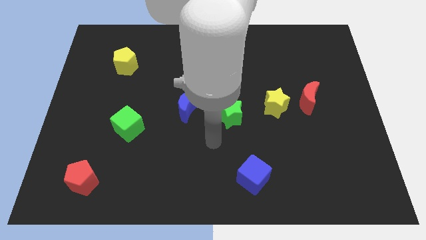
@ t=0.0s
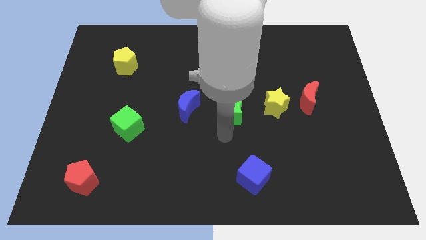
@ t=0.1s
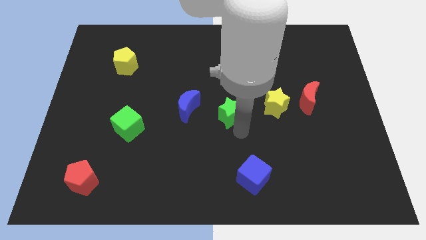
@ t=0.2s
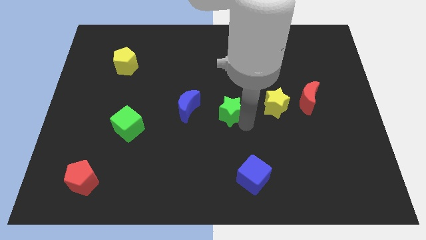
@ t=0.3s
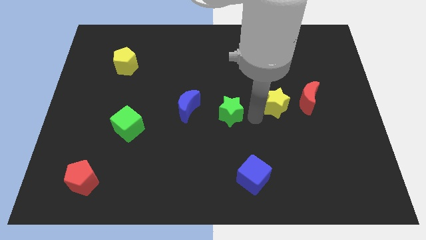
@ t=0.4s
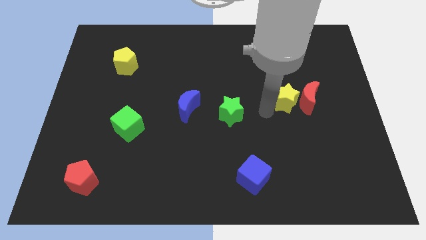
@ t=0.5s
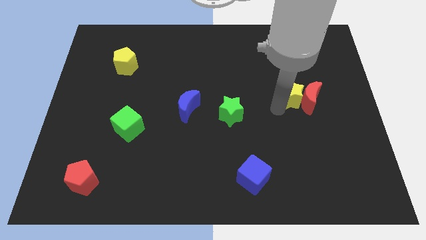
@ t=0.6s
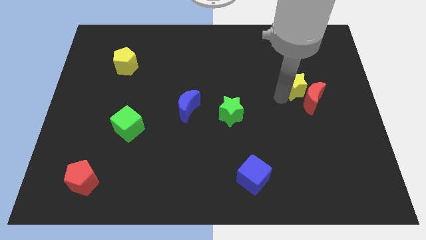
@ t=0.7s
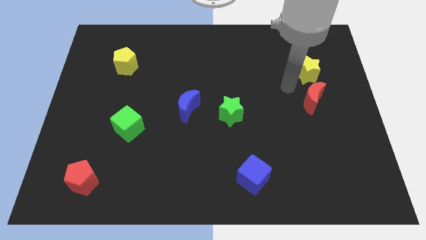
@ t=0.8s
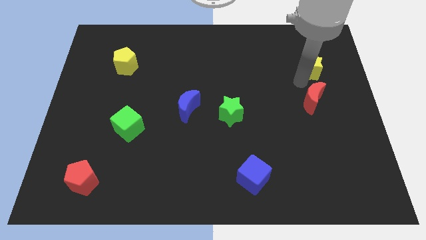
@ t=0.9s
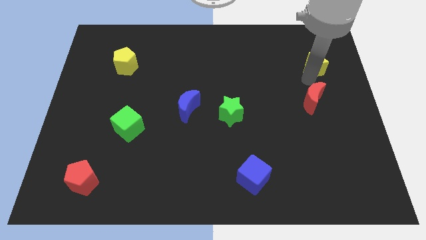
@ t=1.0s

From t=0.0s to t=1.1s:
pull the red moon apart from the yellow star

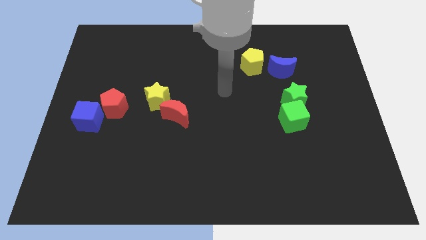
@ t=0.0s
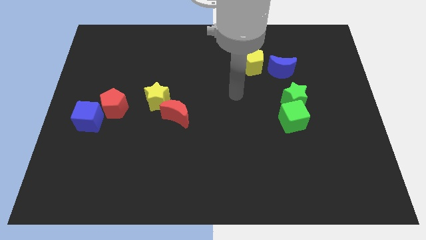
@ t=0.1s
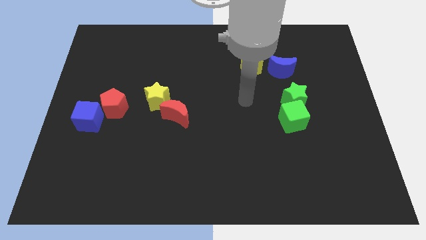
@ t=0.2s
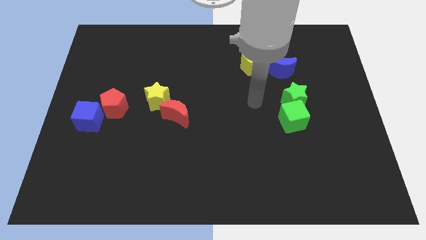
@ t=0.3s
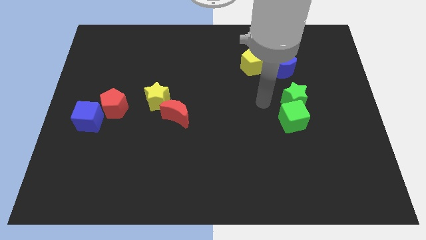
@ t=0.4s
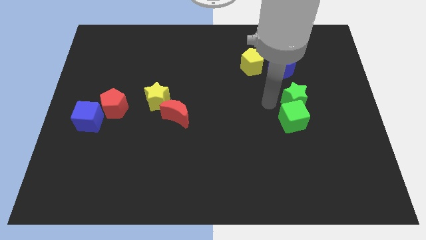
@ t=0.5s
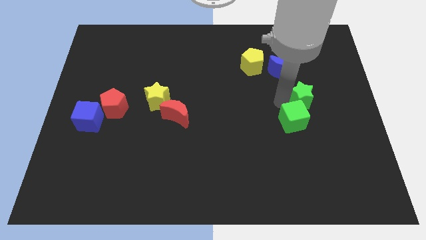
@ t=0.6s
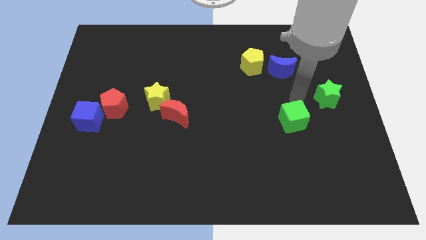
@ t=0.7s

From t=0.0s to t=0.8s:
pull the green cube apart from the green star

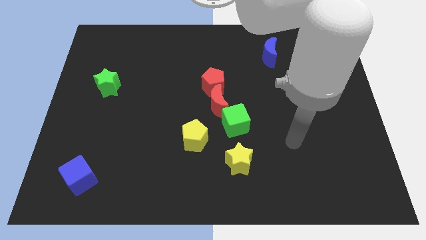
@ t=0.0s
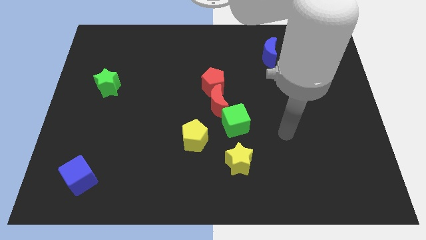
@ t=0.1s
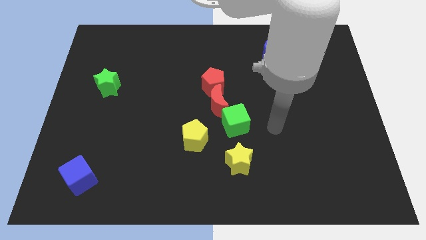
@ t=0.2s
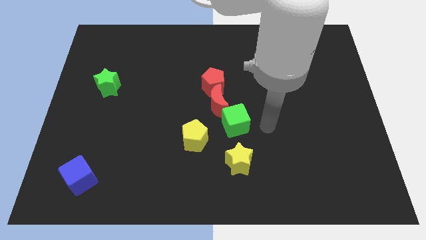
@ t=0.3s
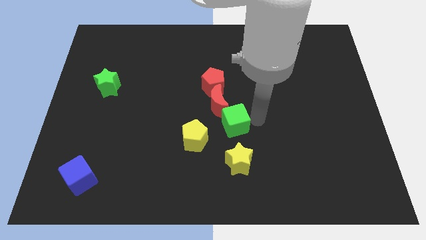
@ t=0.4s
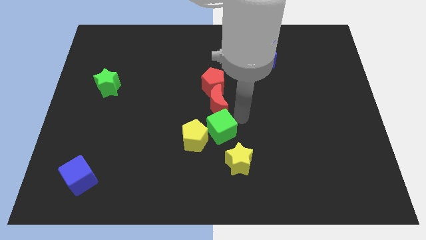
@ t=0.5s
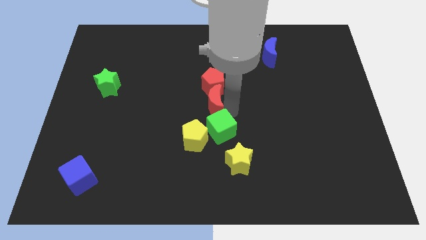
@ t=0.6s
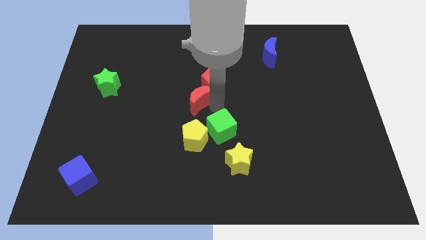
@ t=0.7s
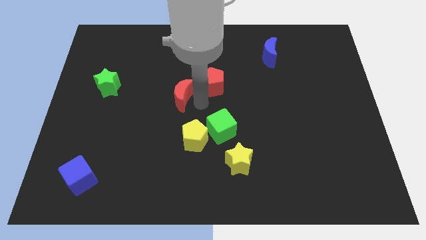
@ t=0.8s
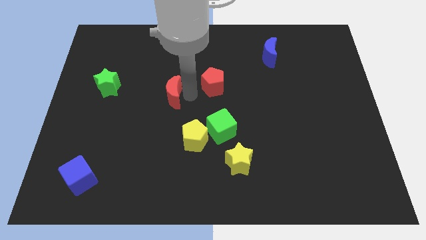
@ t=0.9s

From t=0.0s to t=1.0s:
separate the red pentagon from the red moon

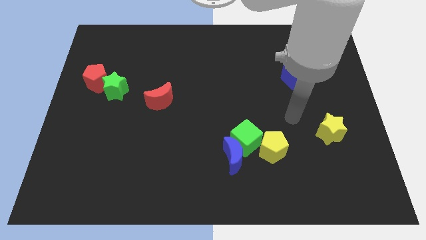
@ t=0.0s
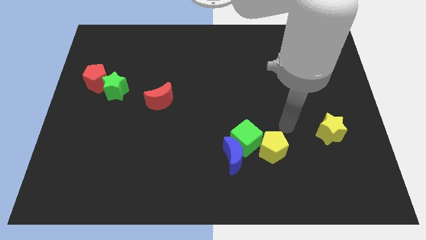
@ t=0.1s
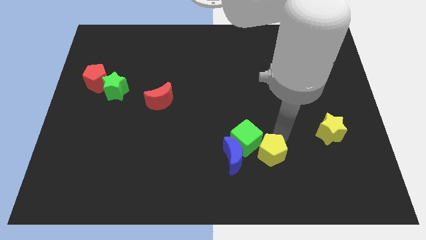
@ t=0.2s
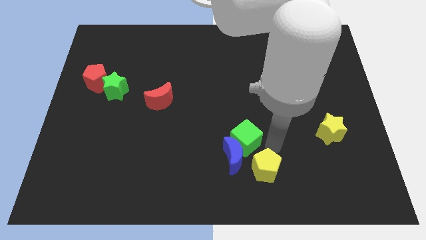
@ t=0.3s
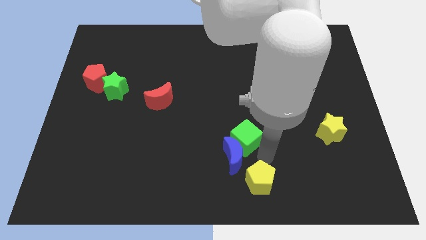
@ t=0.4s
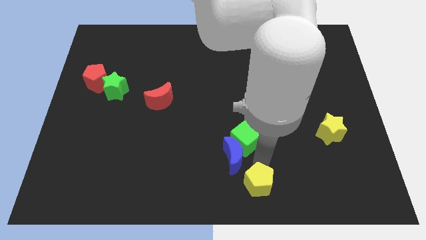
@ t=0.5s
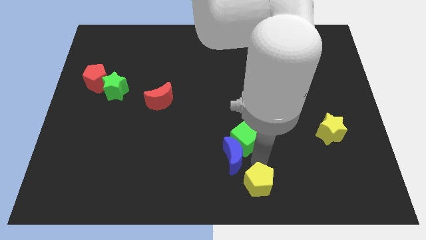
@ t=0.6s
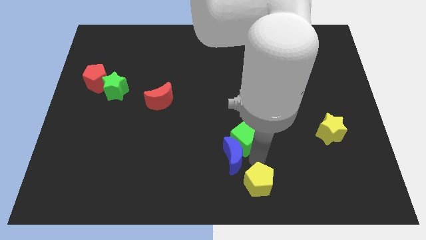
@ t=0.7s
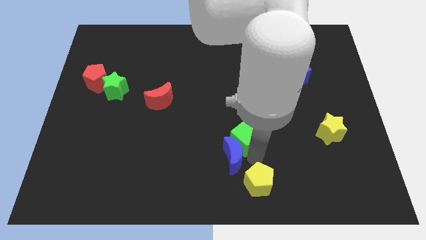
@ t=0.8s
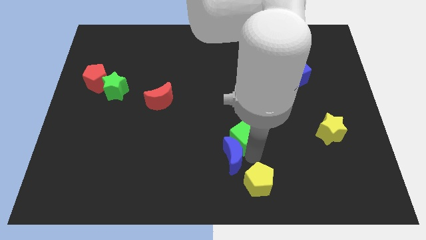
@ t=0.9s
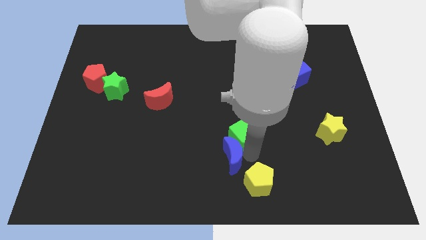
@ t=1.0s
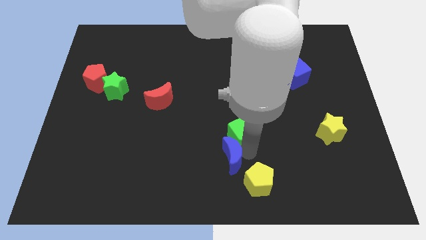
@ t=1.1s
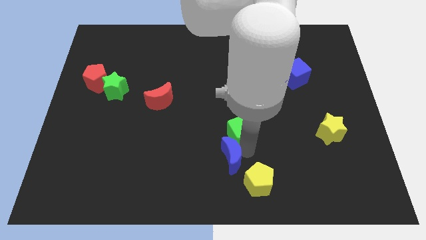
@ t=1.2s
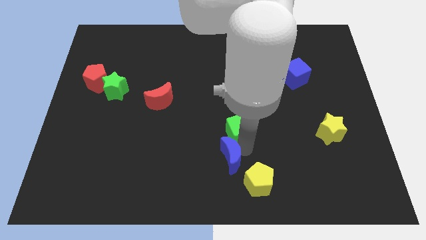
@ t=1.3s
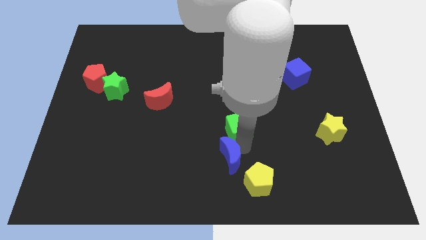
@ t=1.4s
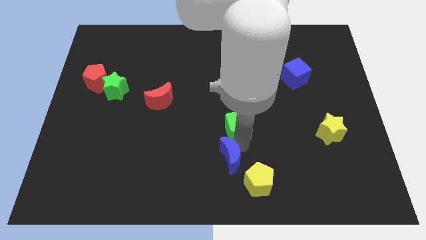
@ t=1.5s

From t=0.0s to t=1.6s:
pull the green cube apart from the blue moon and yellow pentagon

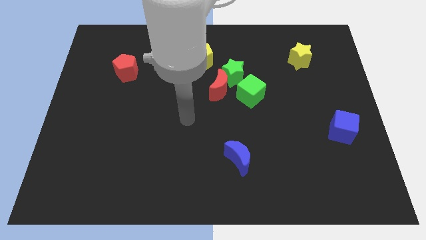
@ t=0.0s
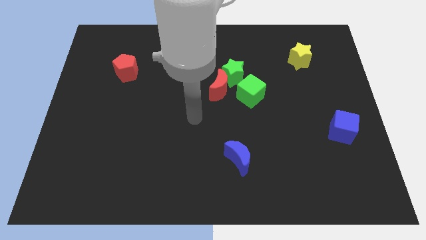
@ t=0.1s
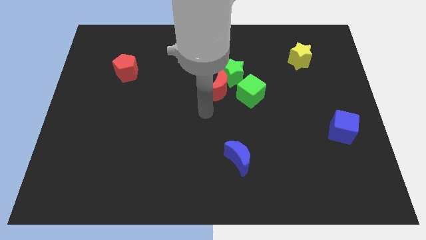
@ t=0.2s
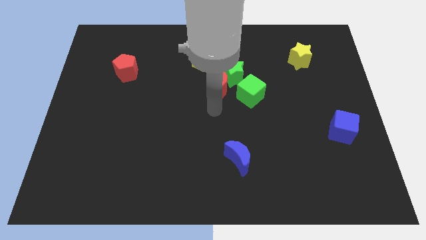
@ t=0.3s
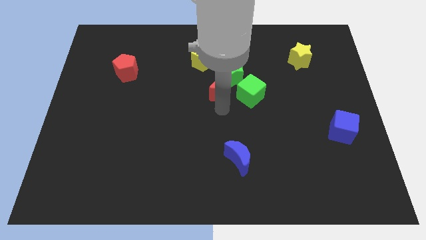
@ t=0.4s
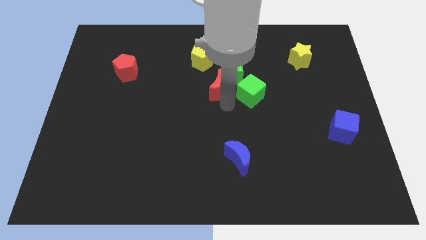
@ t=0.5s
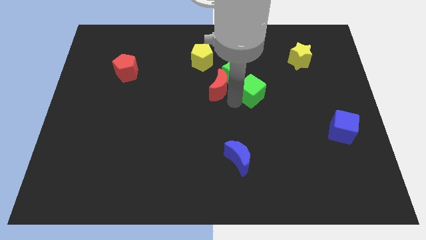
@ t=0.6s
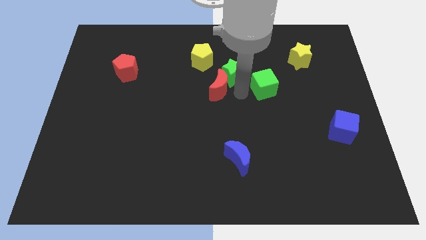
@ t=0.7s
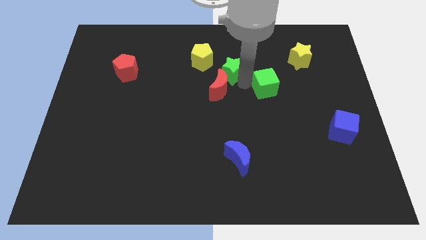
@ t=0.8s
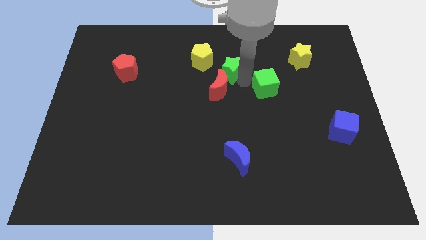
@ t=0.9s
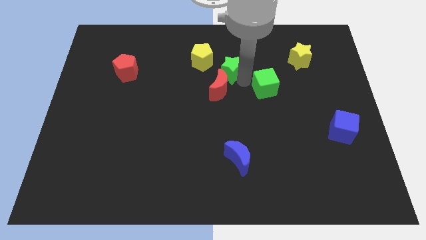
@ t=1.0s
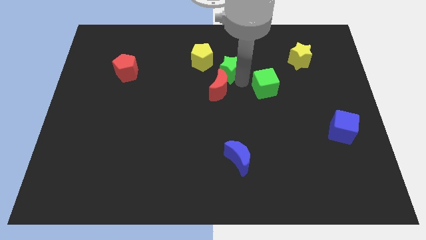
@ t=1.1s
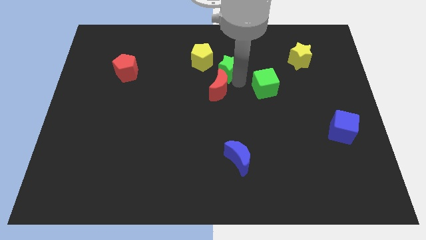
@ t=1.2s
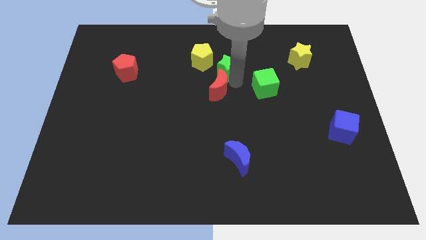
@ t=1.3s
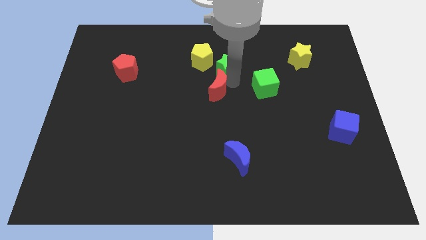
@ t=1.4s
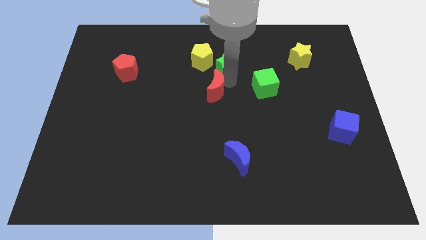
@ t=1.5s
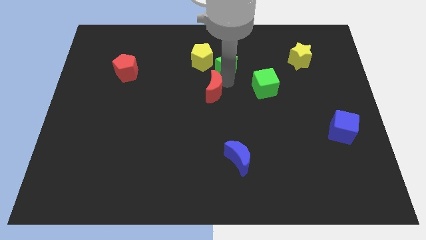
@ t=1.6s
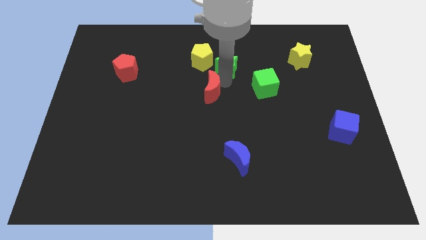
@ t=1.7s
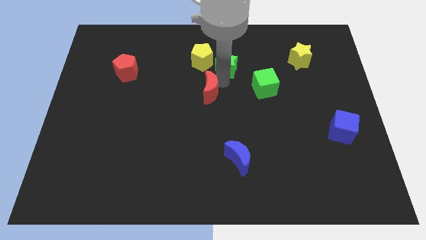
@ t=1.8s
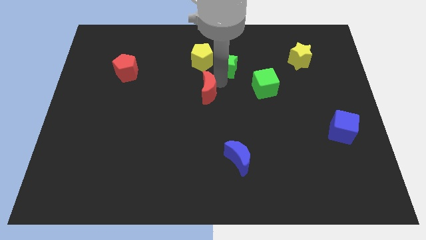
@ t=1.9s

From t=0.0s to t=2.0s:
move the red moon away from the green star and green cube

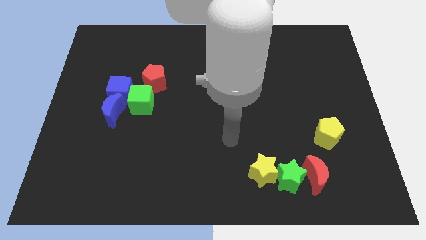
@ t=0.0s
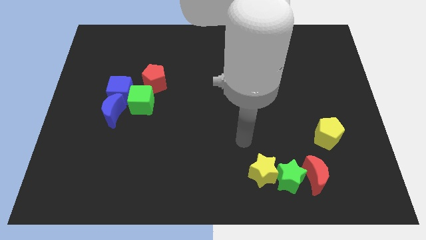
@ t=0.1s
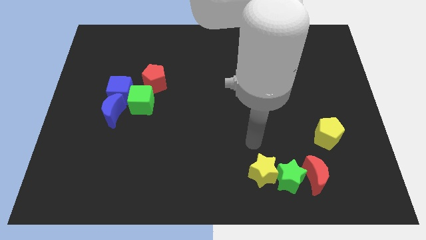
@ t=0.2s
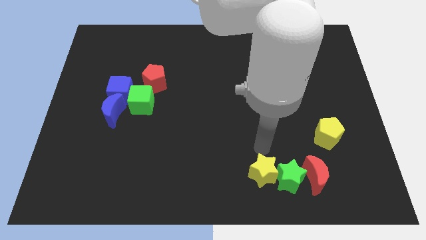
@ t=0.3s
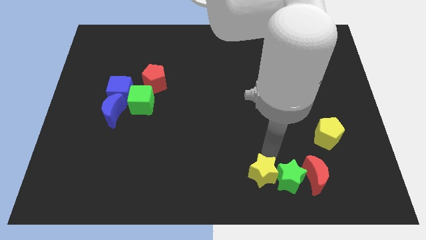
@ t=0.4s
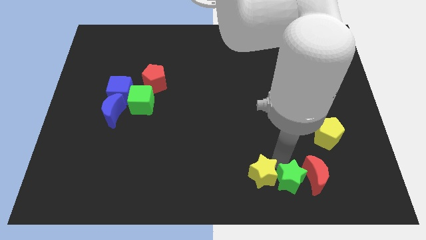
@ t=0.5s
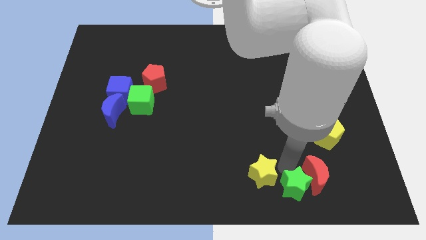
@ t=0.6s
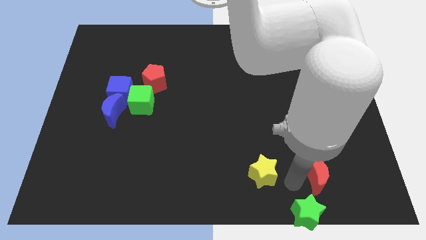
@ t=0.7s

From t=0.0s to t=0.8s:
separate the yellow star from the green star

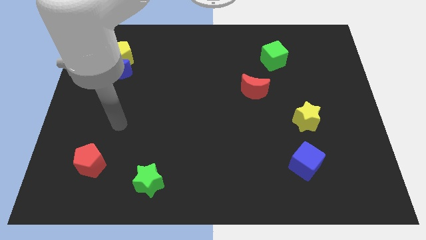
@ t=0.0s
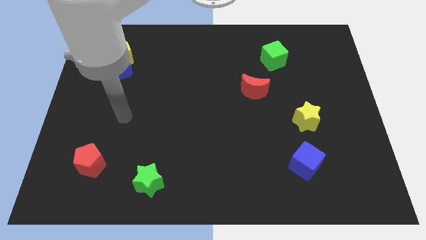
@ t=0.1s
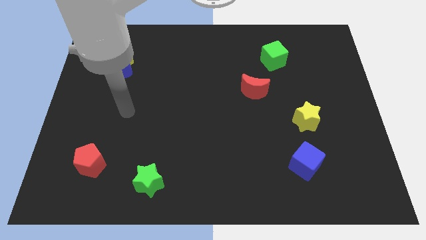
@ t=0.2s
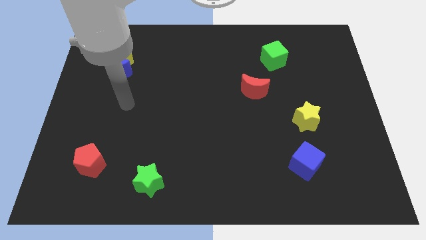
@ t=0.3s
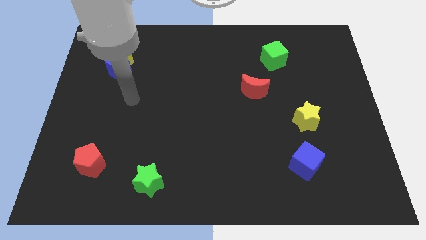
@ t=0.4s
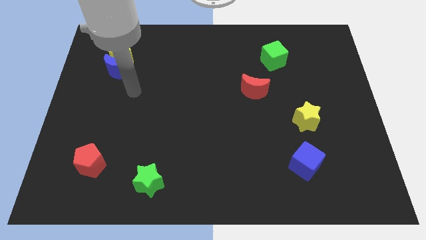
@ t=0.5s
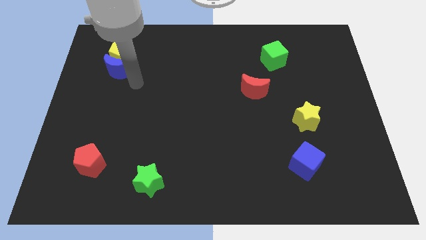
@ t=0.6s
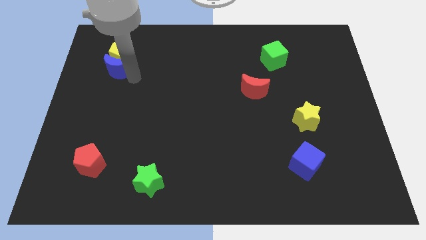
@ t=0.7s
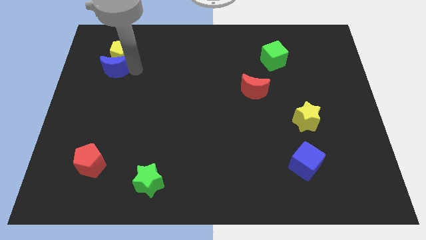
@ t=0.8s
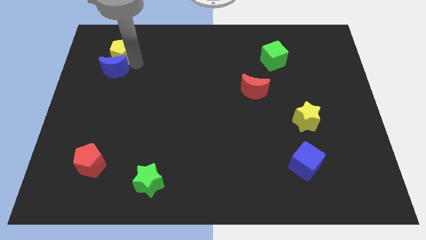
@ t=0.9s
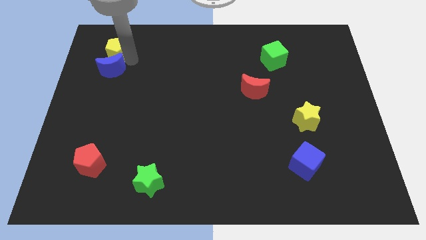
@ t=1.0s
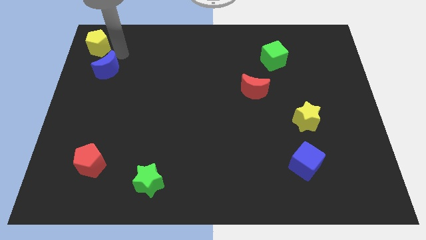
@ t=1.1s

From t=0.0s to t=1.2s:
move the blue moon away from the yellow pentagon

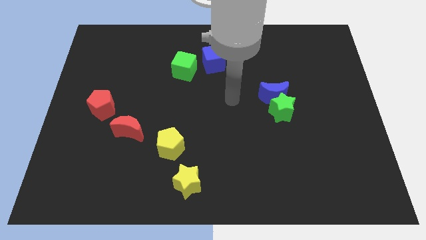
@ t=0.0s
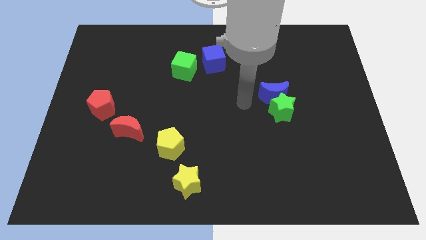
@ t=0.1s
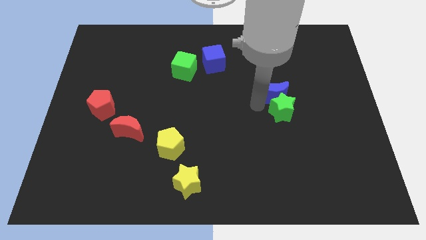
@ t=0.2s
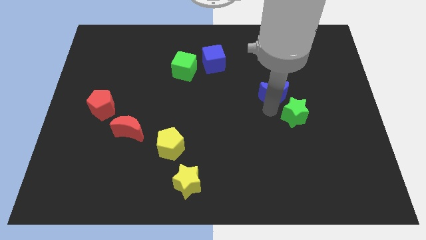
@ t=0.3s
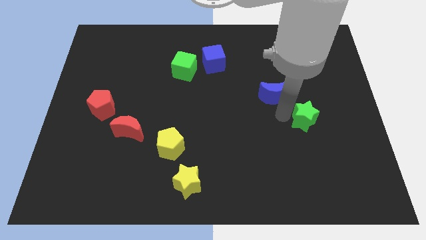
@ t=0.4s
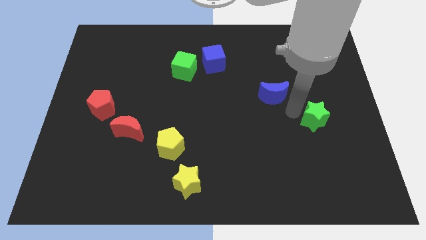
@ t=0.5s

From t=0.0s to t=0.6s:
separate the blue moon from the green star

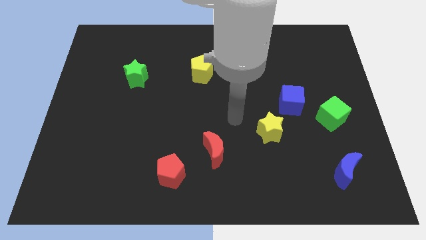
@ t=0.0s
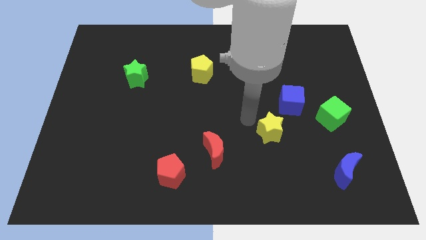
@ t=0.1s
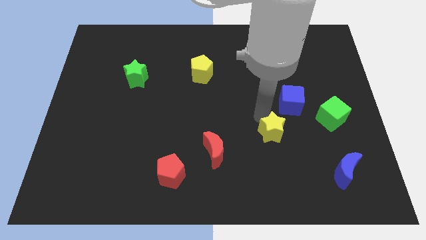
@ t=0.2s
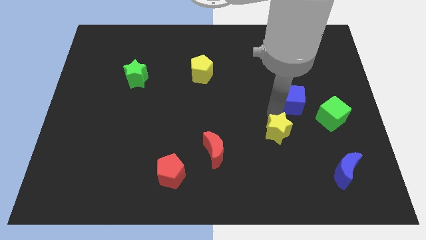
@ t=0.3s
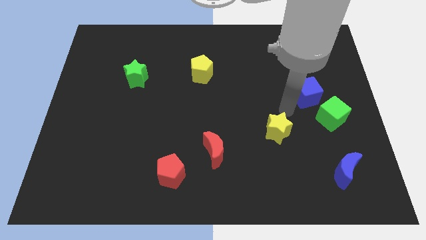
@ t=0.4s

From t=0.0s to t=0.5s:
separate the yellow star from the blue cube
